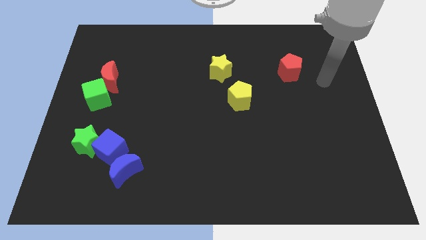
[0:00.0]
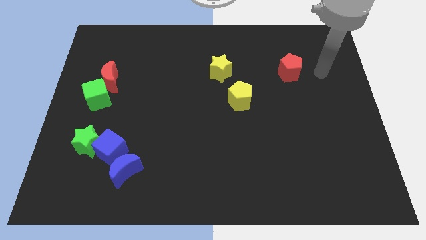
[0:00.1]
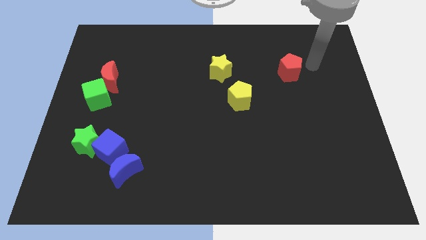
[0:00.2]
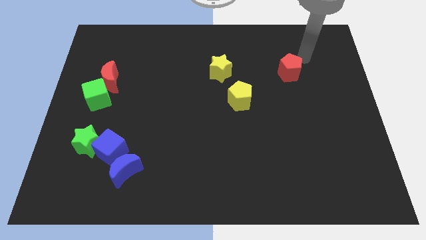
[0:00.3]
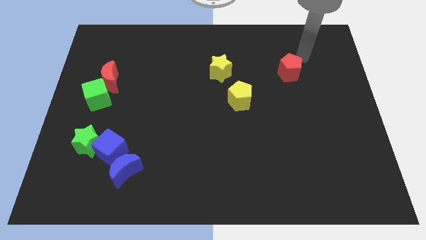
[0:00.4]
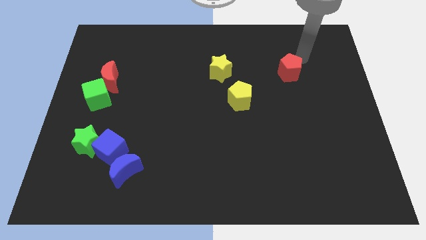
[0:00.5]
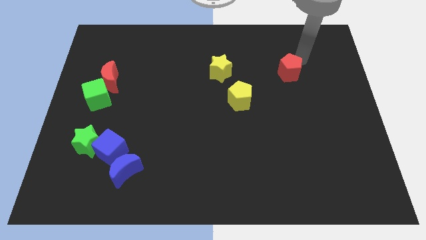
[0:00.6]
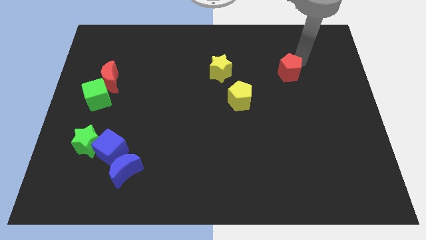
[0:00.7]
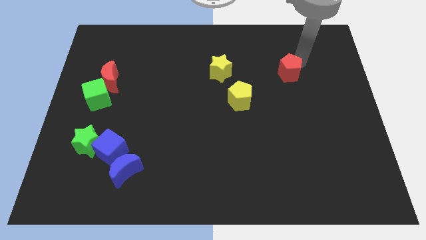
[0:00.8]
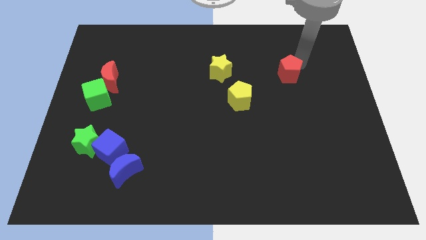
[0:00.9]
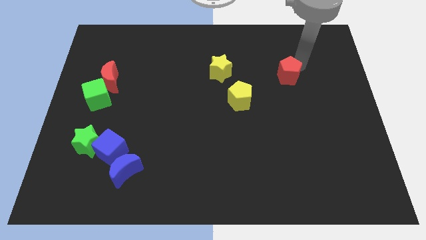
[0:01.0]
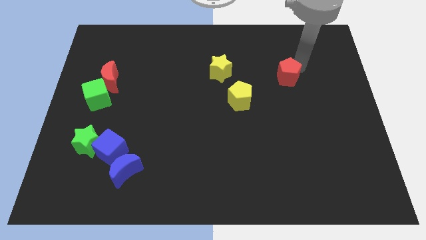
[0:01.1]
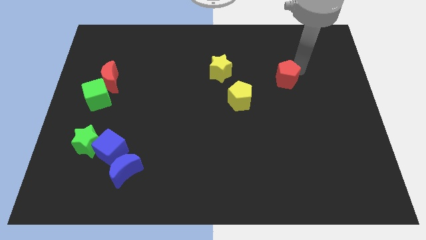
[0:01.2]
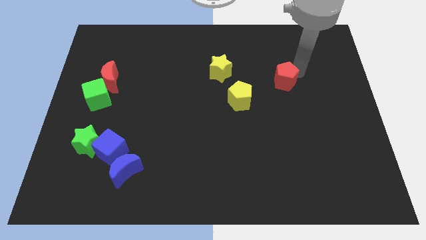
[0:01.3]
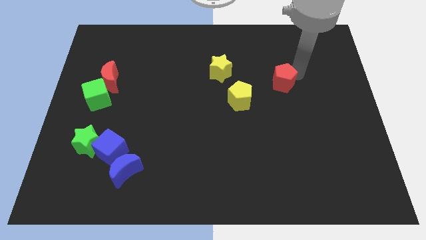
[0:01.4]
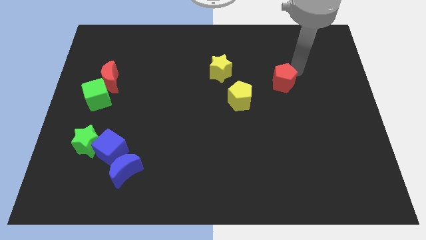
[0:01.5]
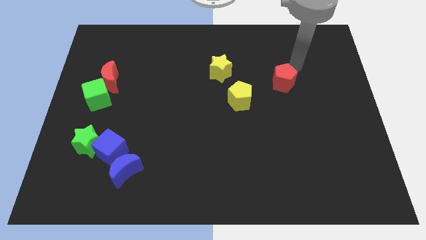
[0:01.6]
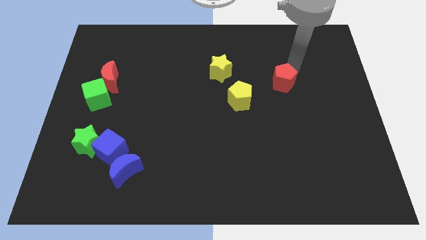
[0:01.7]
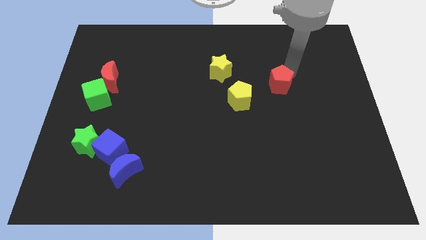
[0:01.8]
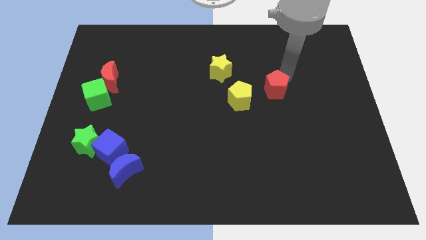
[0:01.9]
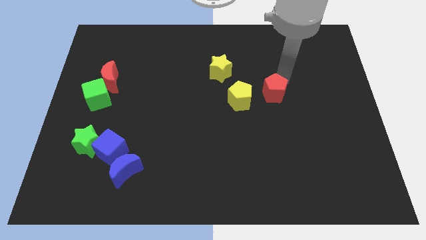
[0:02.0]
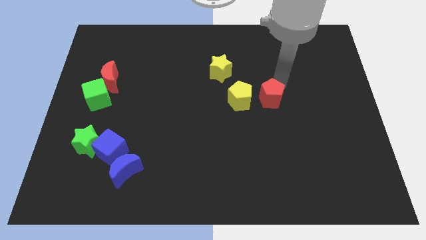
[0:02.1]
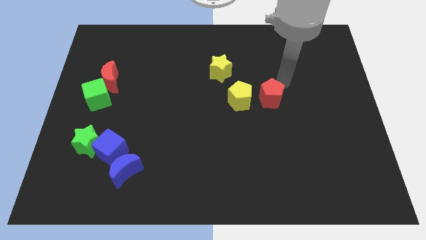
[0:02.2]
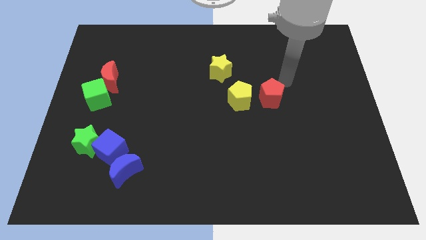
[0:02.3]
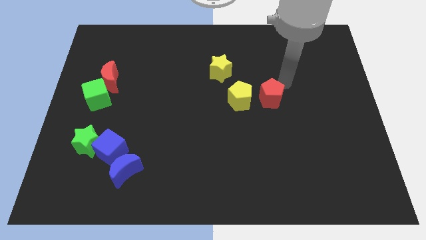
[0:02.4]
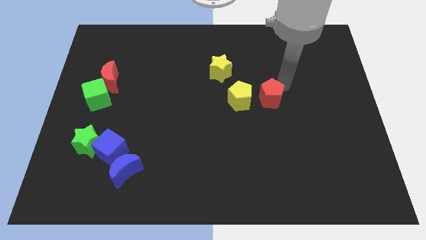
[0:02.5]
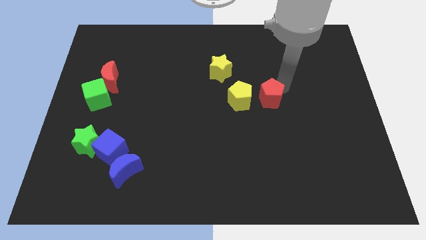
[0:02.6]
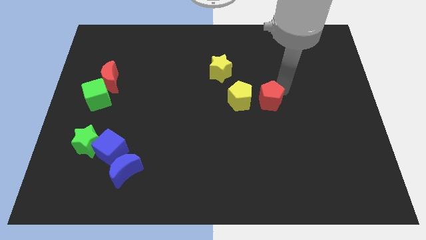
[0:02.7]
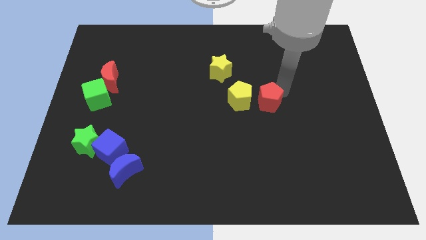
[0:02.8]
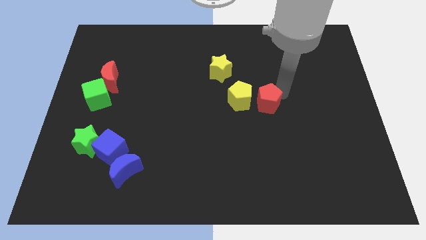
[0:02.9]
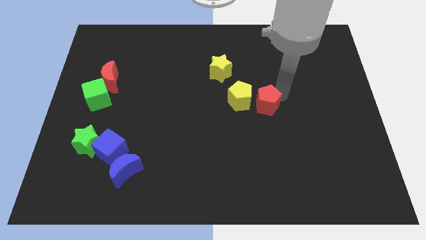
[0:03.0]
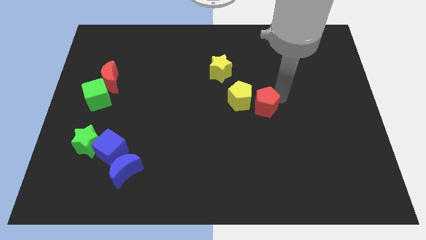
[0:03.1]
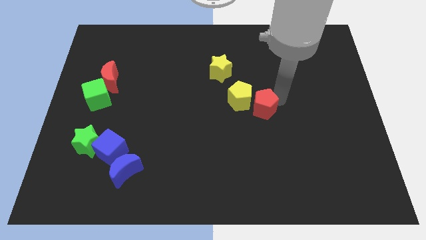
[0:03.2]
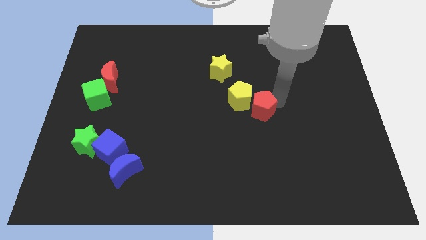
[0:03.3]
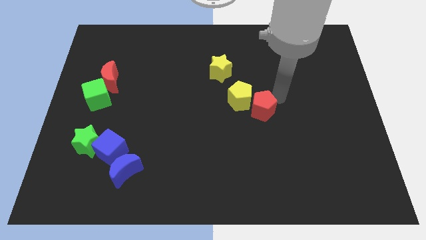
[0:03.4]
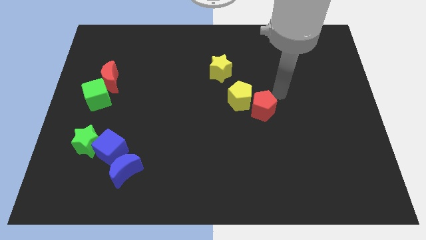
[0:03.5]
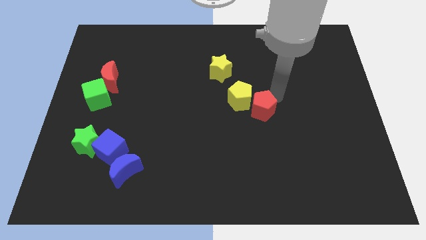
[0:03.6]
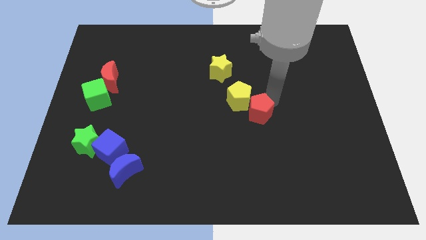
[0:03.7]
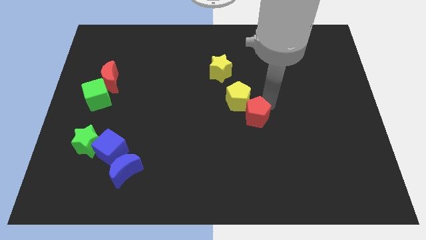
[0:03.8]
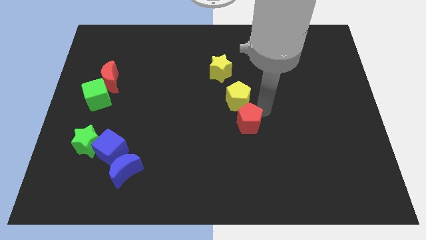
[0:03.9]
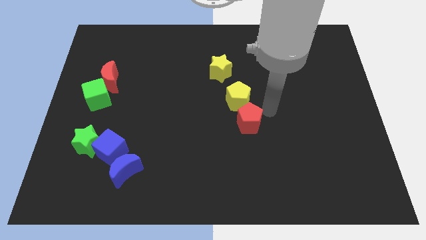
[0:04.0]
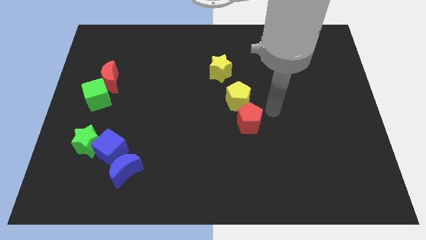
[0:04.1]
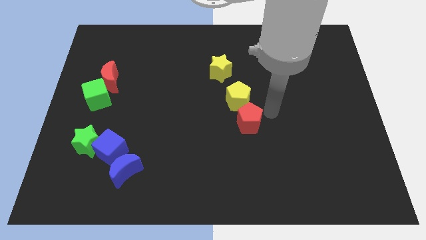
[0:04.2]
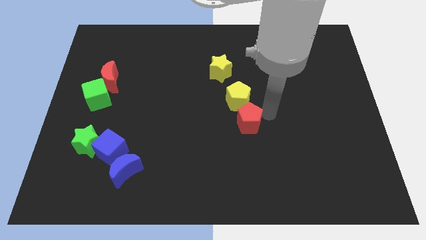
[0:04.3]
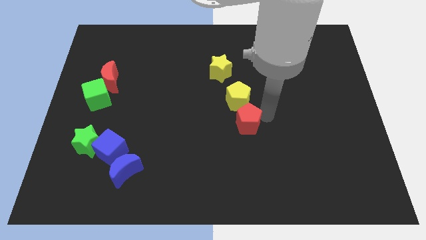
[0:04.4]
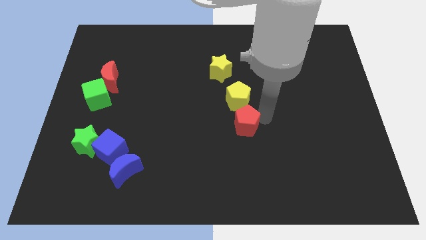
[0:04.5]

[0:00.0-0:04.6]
slide the red pentagon down and to the left diagonally

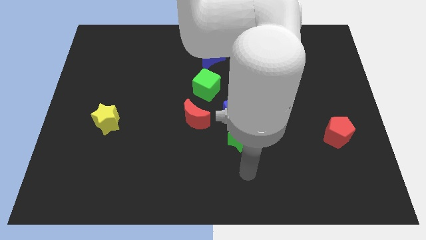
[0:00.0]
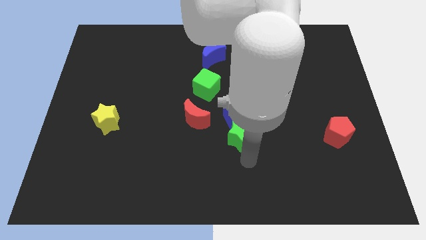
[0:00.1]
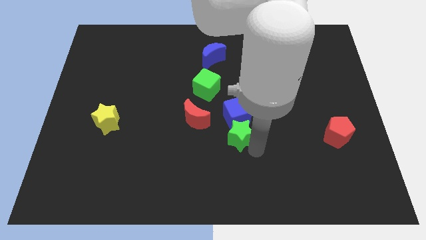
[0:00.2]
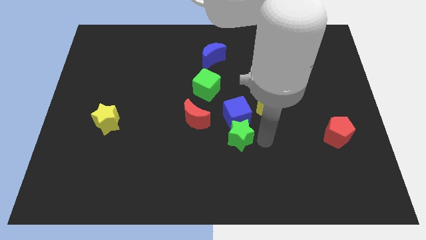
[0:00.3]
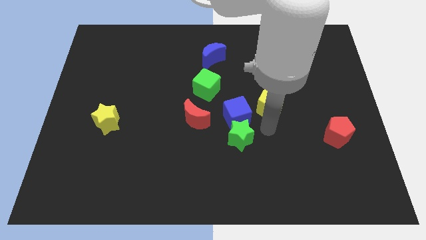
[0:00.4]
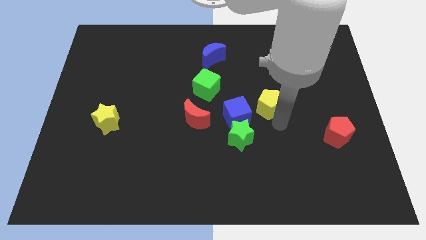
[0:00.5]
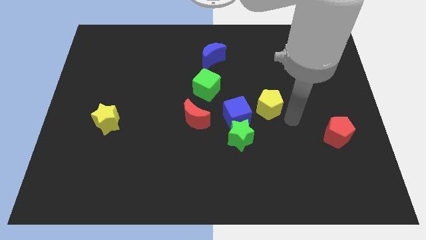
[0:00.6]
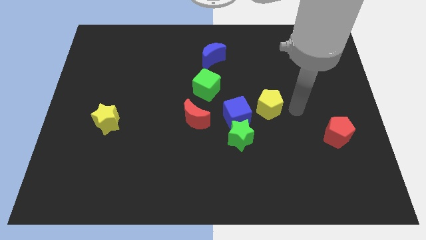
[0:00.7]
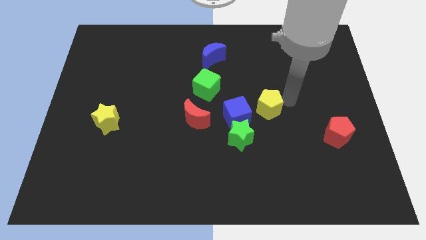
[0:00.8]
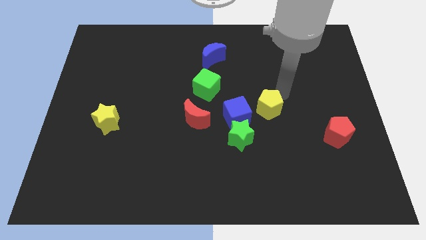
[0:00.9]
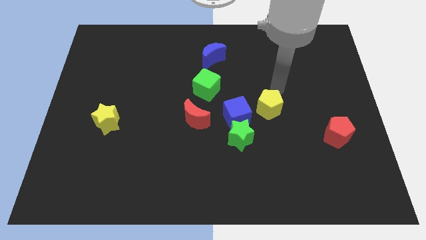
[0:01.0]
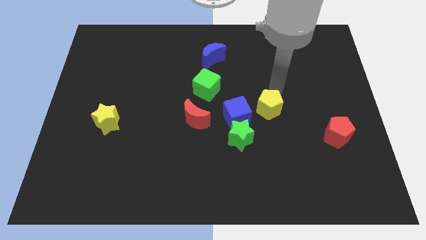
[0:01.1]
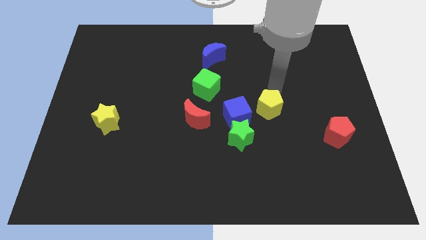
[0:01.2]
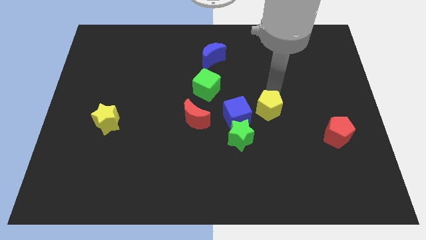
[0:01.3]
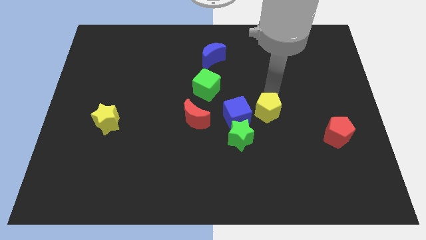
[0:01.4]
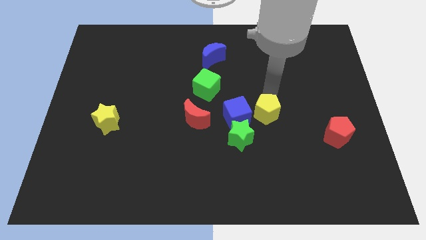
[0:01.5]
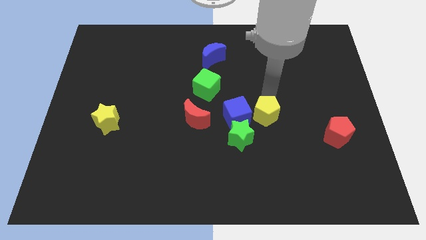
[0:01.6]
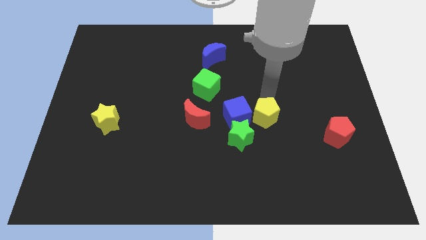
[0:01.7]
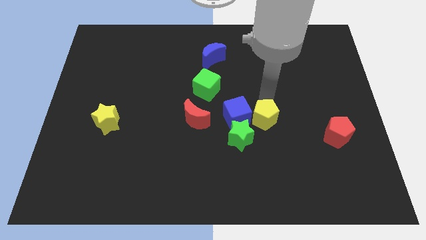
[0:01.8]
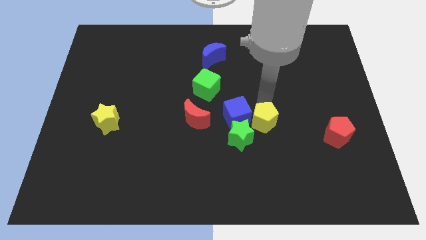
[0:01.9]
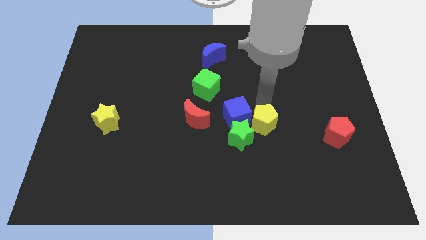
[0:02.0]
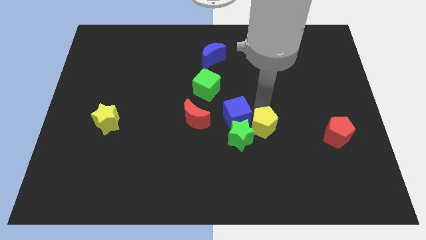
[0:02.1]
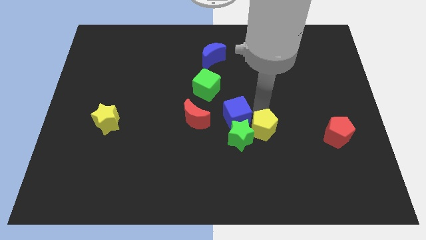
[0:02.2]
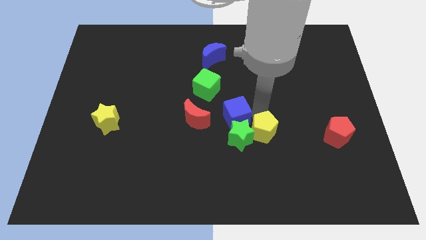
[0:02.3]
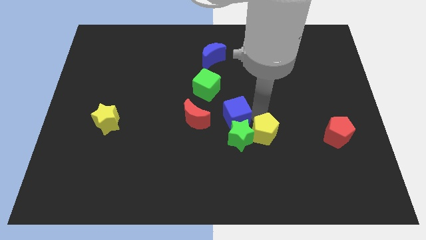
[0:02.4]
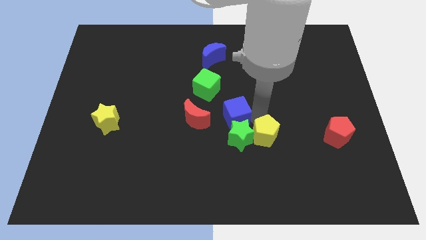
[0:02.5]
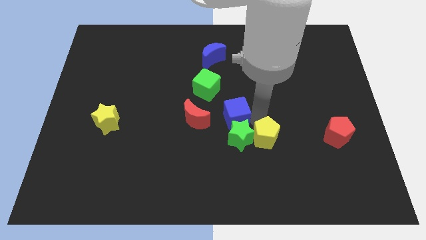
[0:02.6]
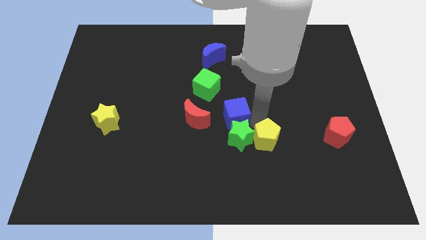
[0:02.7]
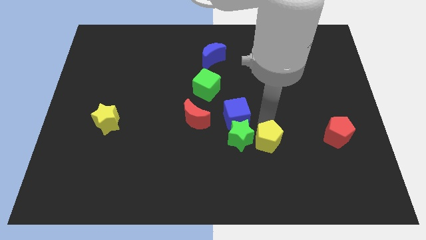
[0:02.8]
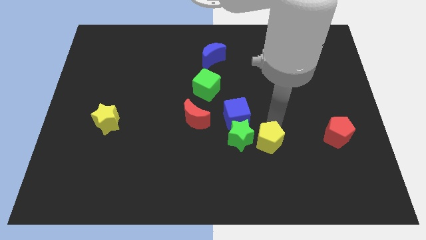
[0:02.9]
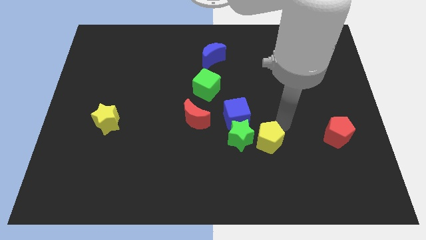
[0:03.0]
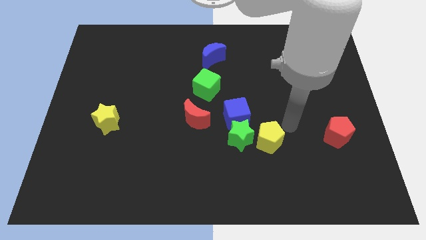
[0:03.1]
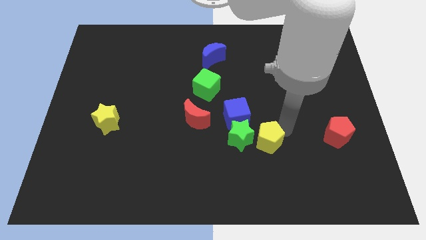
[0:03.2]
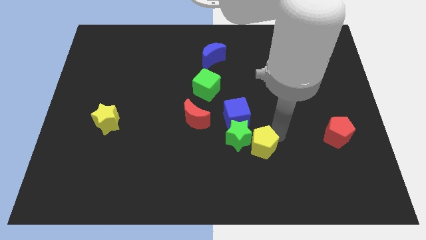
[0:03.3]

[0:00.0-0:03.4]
slightly slide the yellow pentagon downwards and left diagonally

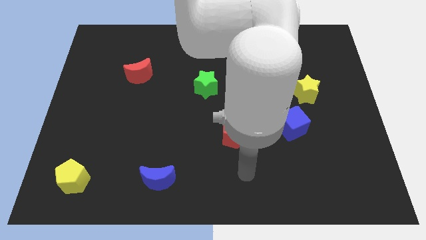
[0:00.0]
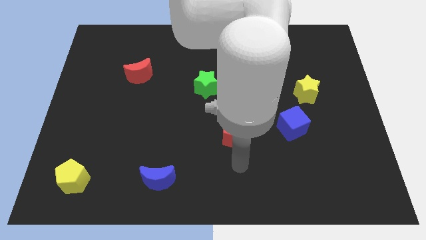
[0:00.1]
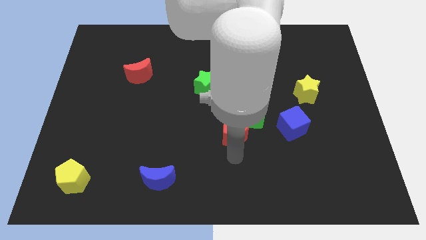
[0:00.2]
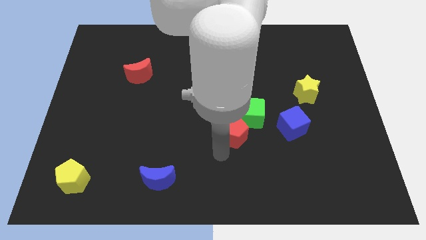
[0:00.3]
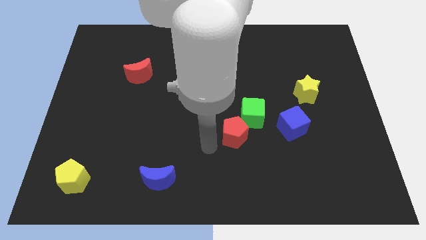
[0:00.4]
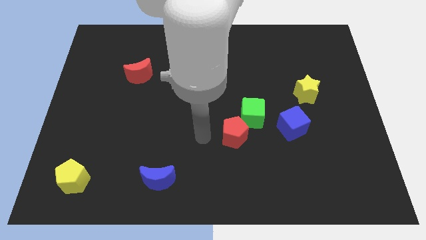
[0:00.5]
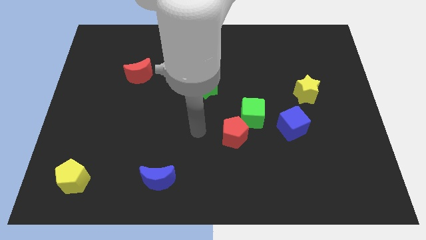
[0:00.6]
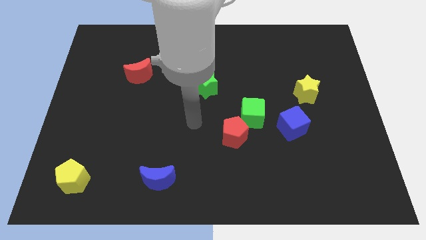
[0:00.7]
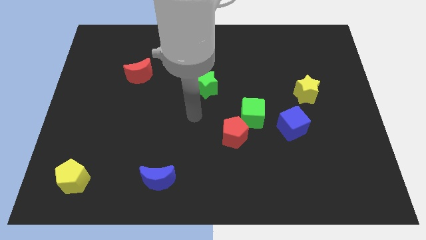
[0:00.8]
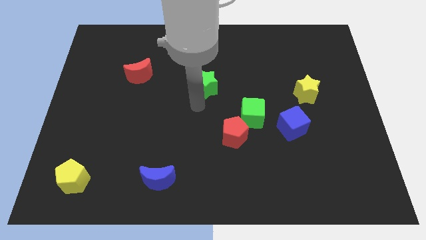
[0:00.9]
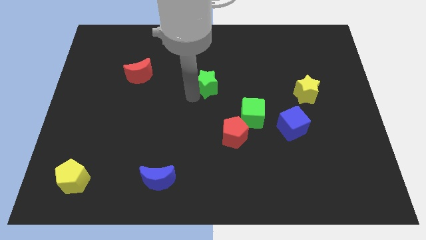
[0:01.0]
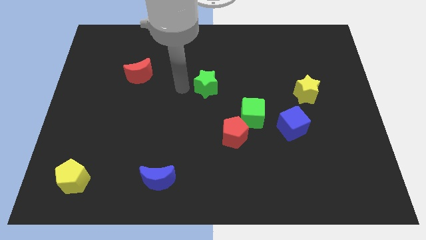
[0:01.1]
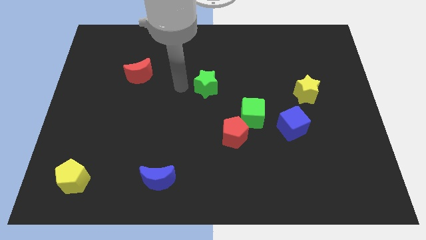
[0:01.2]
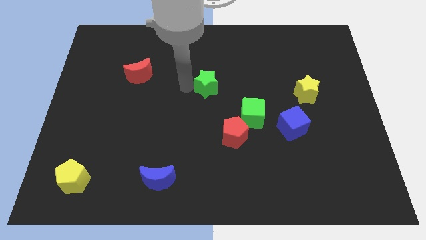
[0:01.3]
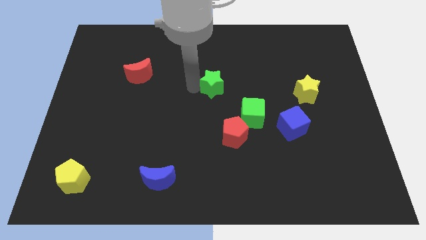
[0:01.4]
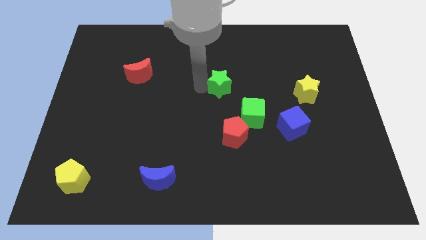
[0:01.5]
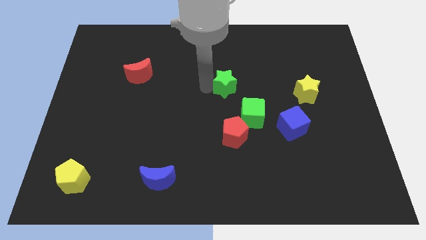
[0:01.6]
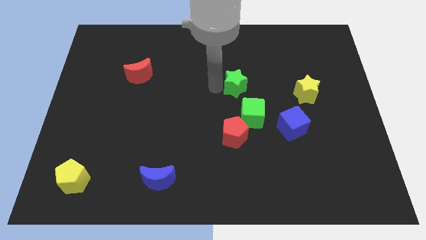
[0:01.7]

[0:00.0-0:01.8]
push the green star to the right a bit
